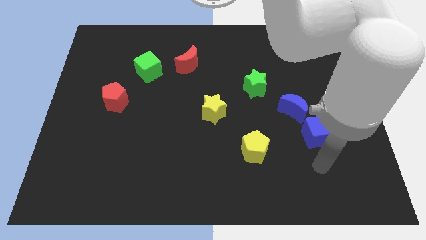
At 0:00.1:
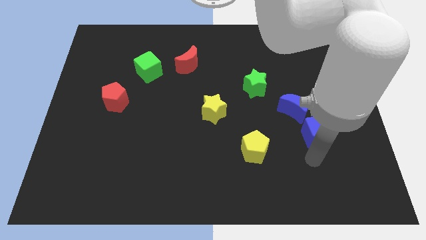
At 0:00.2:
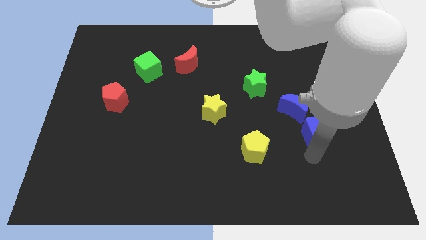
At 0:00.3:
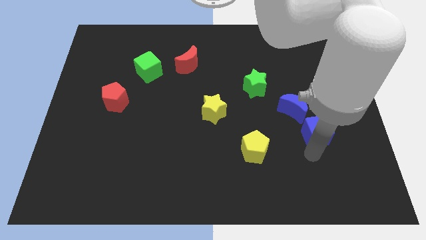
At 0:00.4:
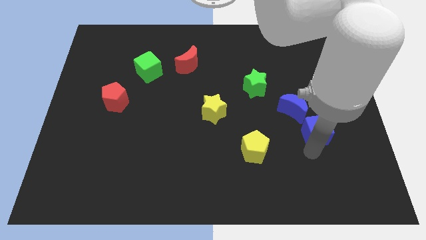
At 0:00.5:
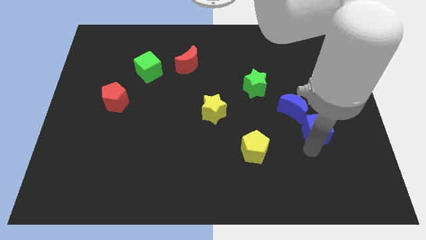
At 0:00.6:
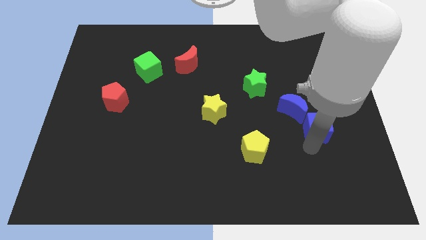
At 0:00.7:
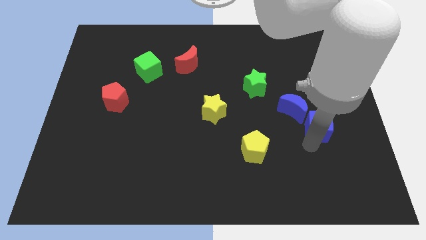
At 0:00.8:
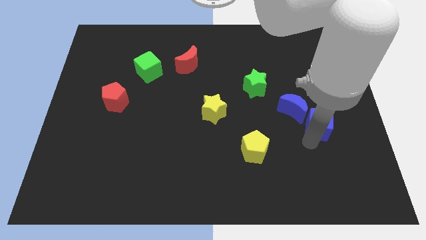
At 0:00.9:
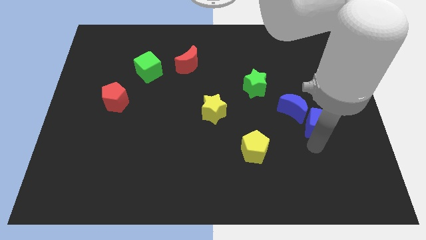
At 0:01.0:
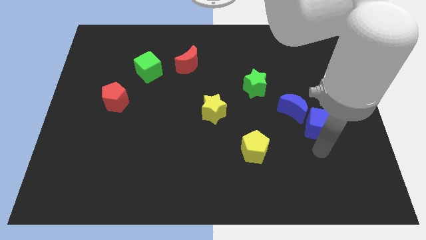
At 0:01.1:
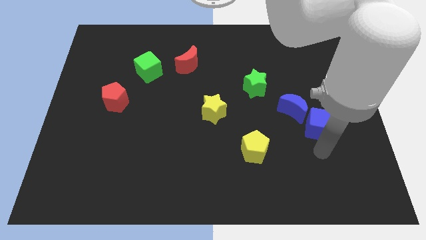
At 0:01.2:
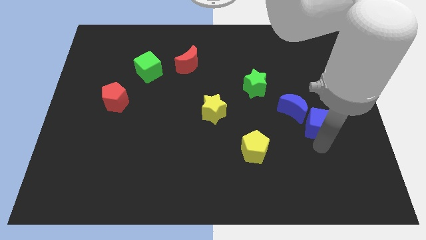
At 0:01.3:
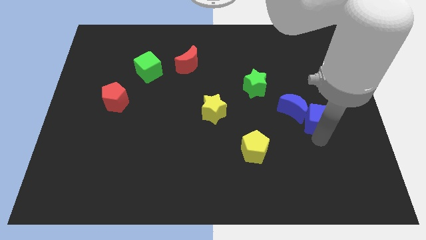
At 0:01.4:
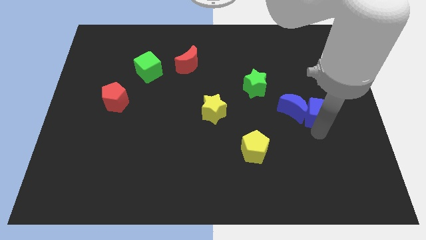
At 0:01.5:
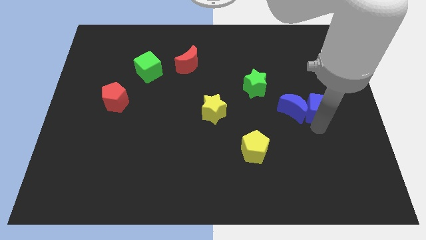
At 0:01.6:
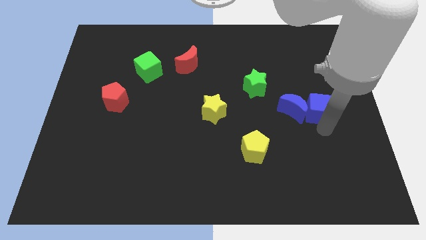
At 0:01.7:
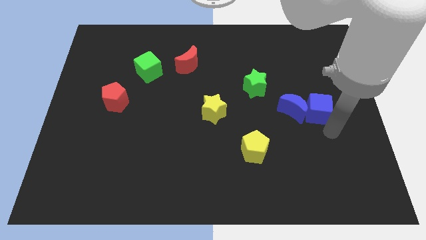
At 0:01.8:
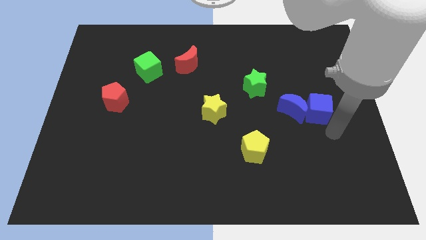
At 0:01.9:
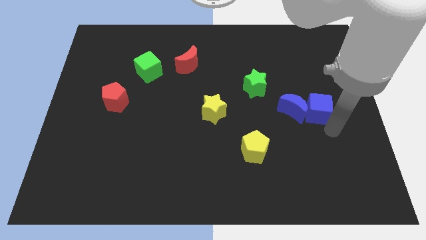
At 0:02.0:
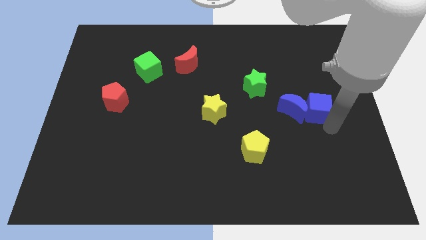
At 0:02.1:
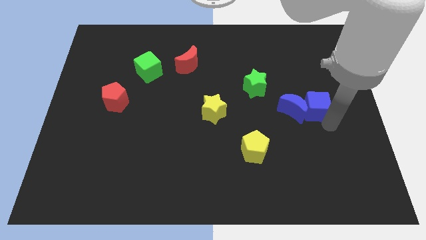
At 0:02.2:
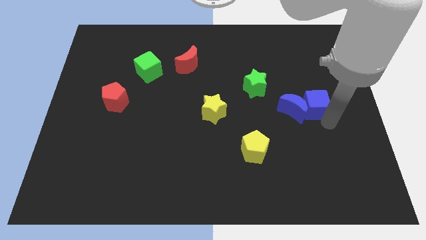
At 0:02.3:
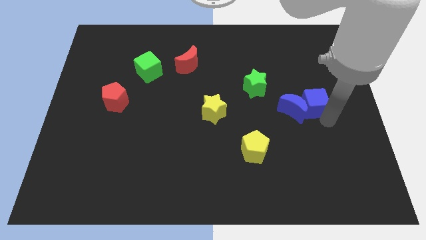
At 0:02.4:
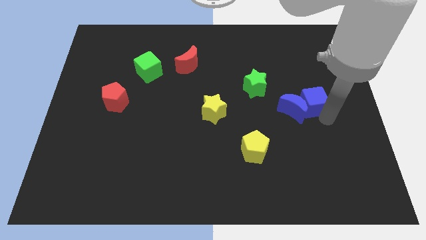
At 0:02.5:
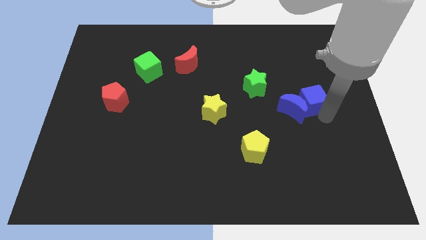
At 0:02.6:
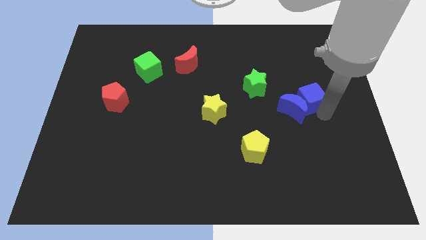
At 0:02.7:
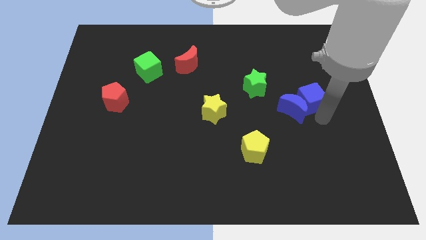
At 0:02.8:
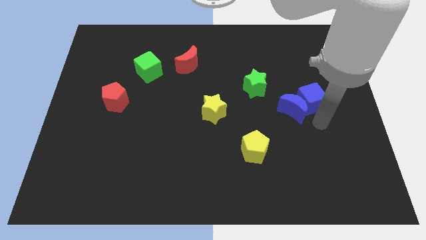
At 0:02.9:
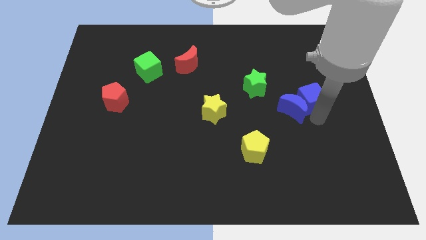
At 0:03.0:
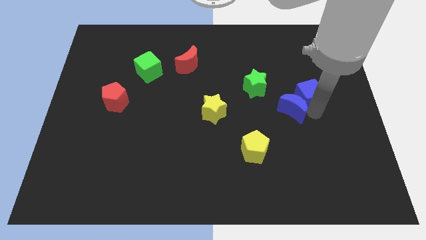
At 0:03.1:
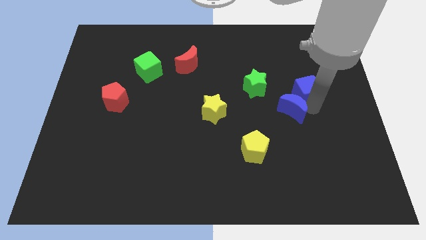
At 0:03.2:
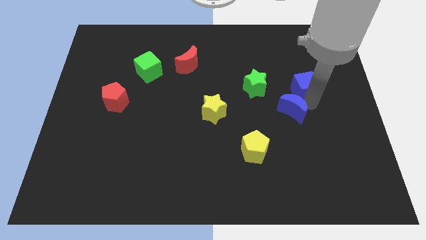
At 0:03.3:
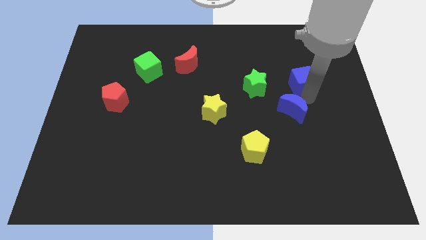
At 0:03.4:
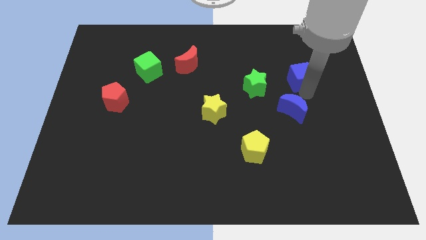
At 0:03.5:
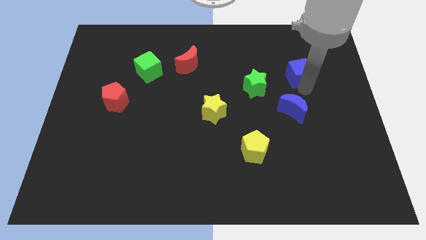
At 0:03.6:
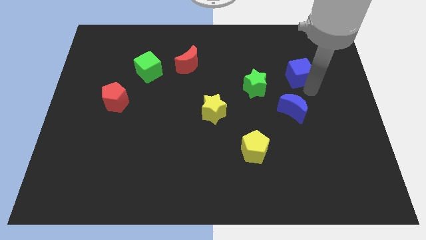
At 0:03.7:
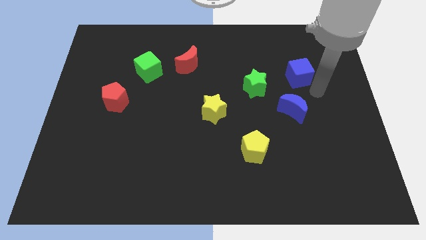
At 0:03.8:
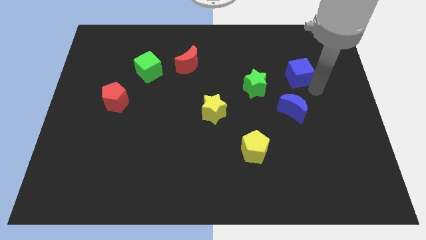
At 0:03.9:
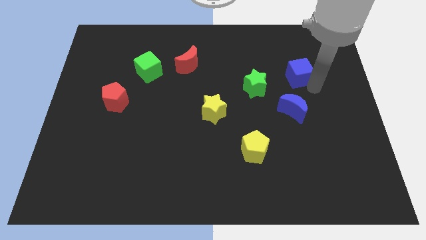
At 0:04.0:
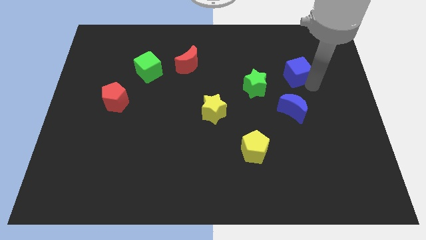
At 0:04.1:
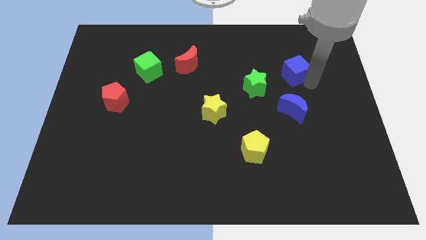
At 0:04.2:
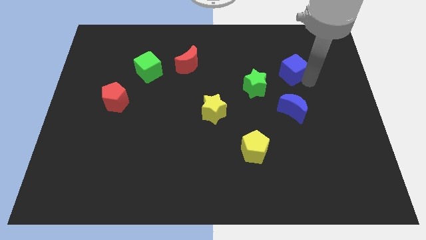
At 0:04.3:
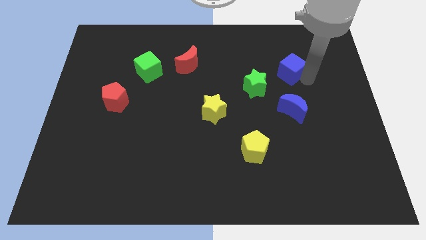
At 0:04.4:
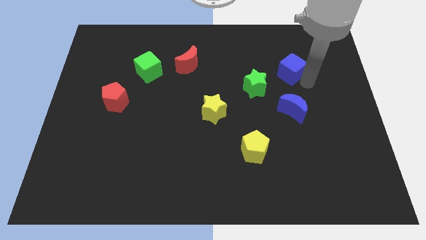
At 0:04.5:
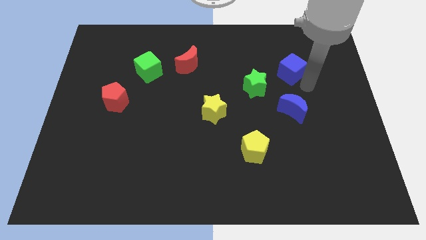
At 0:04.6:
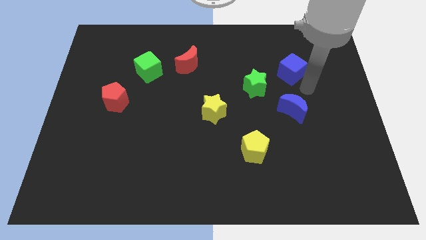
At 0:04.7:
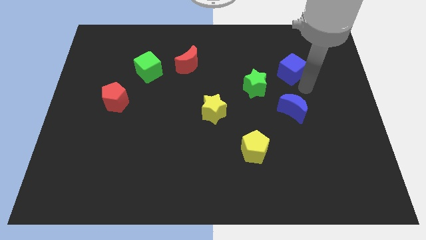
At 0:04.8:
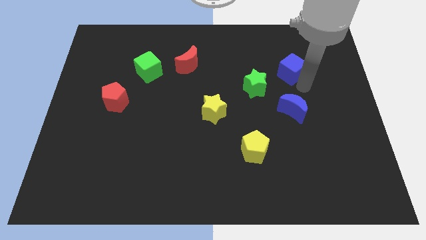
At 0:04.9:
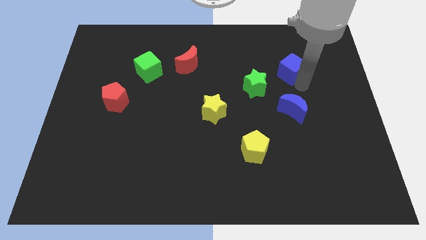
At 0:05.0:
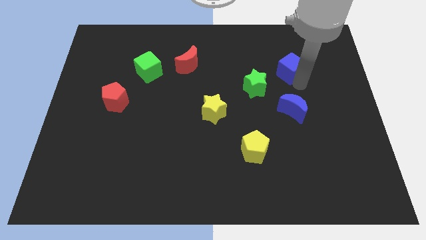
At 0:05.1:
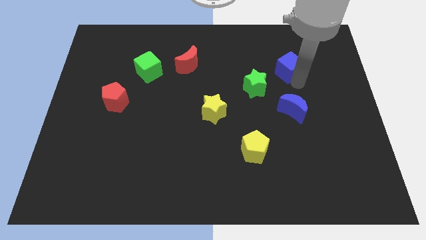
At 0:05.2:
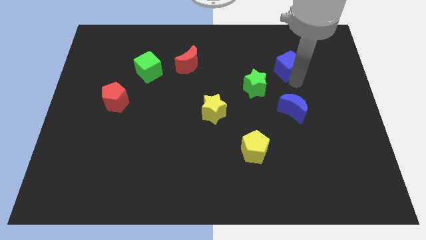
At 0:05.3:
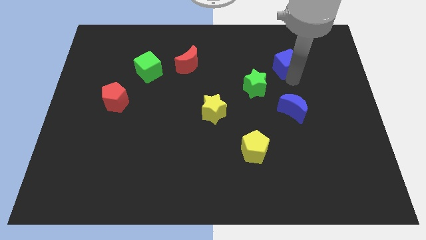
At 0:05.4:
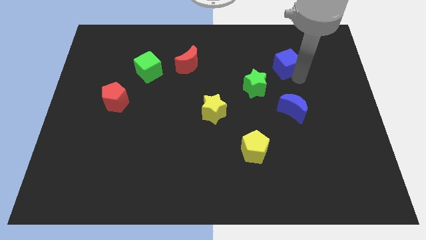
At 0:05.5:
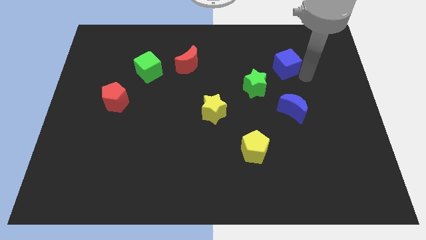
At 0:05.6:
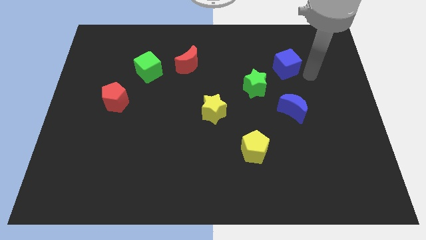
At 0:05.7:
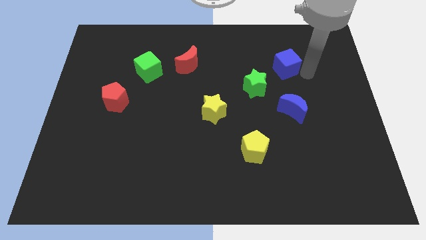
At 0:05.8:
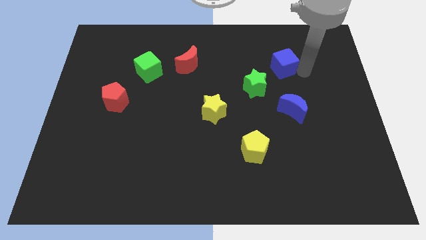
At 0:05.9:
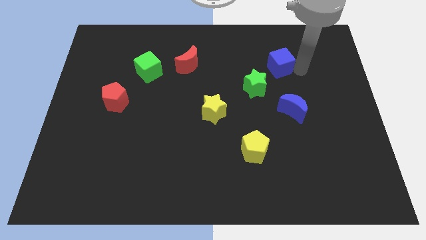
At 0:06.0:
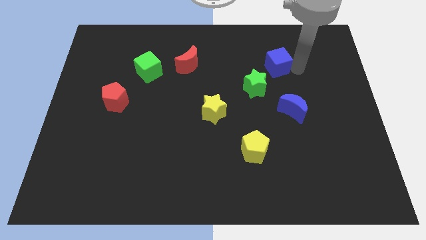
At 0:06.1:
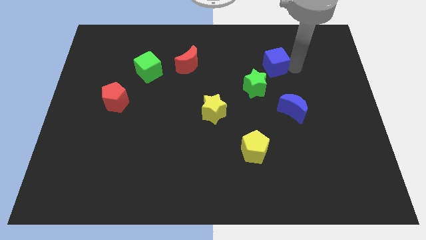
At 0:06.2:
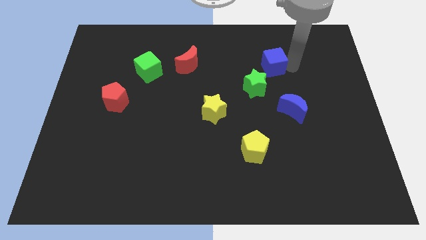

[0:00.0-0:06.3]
push the blue cube to the top of the green star

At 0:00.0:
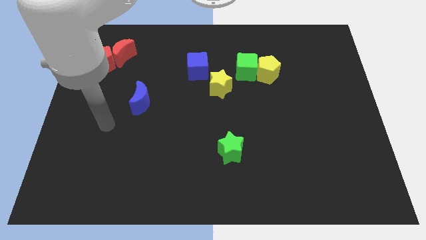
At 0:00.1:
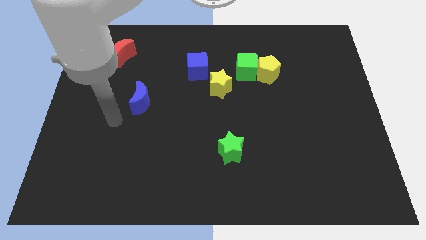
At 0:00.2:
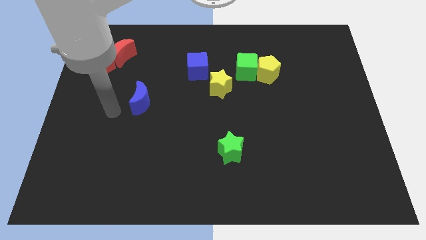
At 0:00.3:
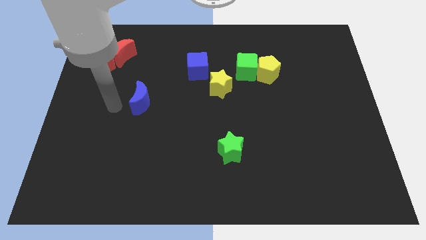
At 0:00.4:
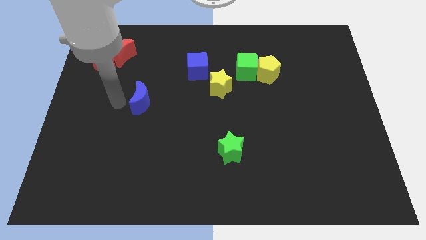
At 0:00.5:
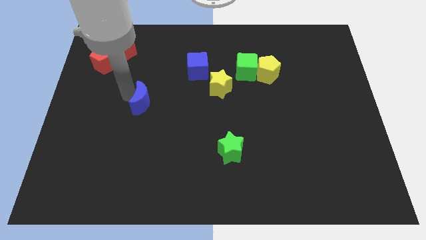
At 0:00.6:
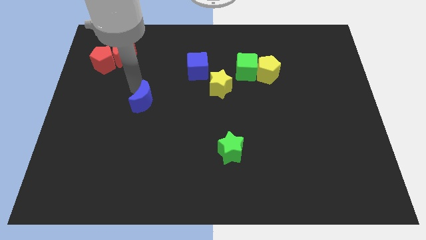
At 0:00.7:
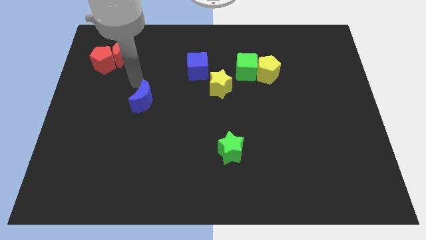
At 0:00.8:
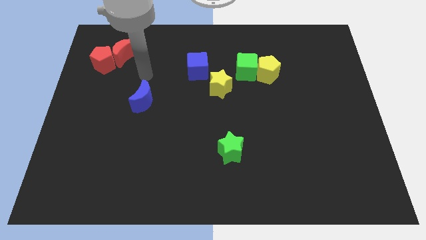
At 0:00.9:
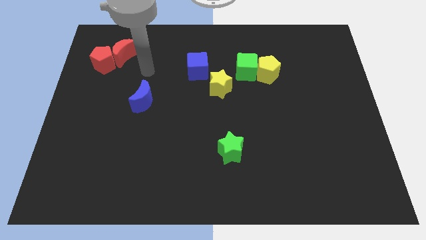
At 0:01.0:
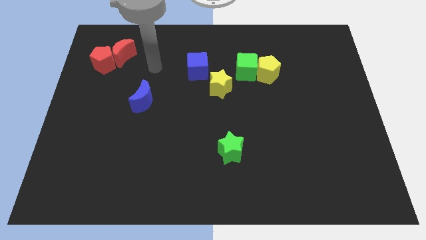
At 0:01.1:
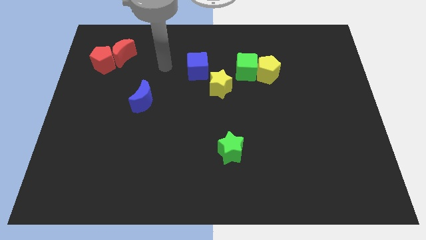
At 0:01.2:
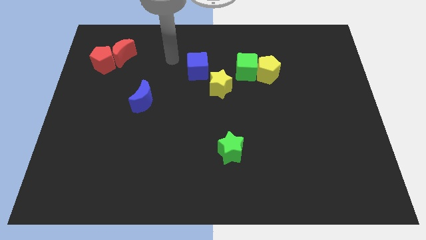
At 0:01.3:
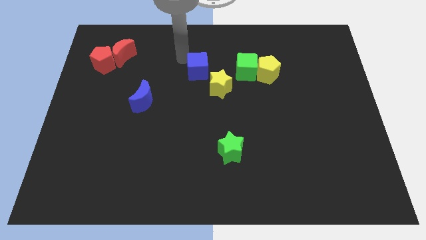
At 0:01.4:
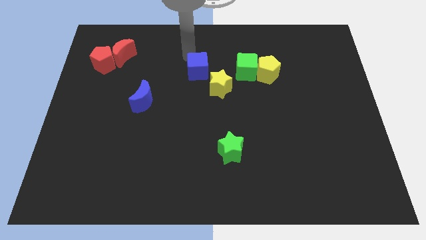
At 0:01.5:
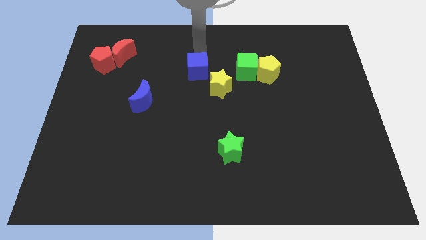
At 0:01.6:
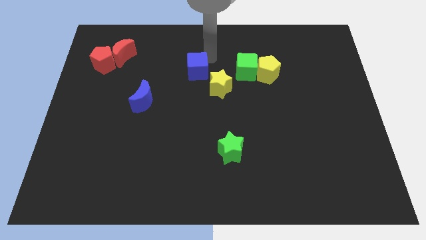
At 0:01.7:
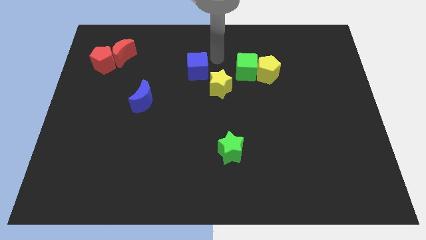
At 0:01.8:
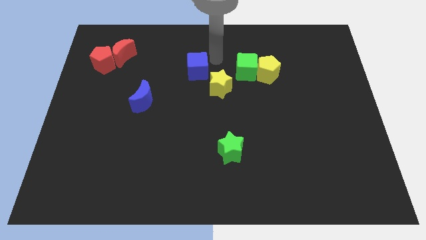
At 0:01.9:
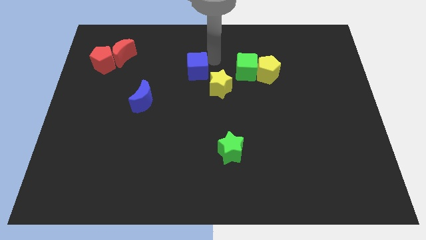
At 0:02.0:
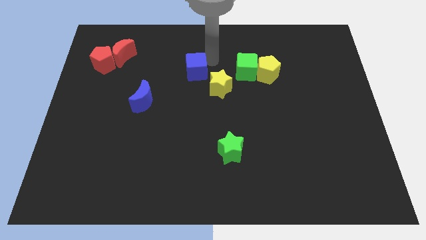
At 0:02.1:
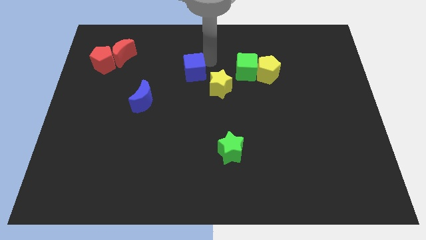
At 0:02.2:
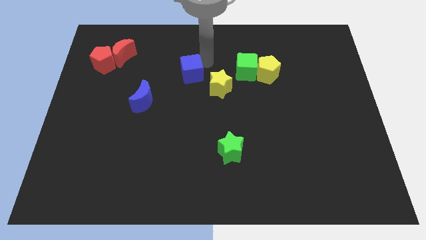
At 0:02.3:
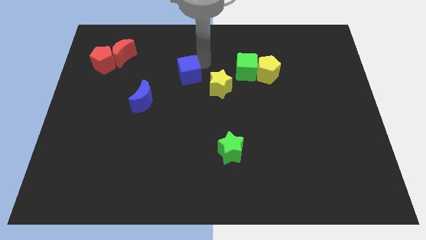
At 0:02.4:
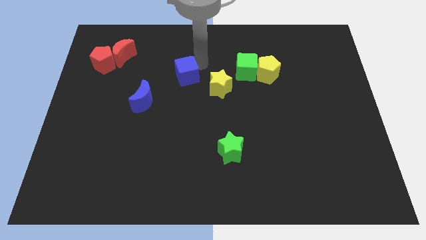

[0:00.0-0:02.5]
move the blue cube to the top right side of the blue moon
